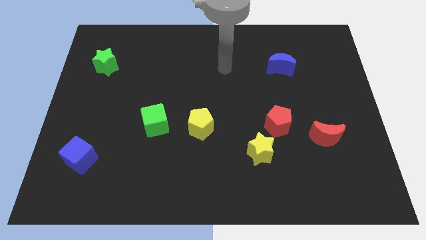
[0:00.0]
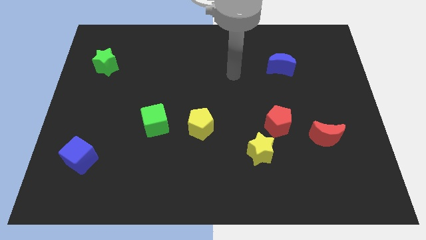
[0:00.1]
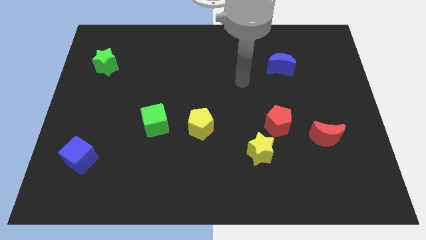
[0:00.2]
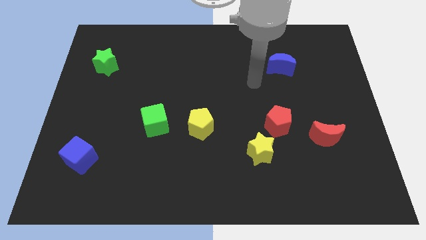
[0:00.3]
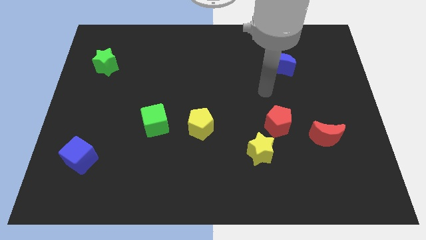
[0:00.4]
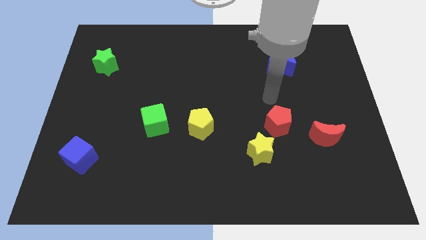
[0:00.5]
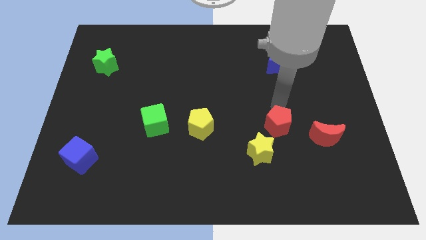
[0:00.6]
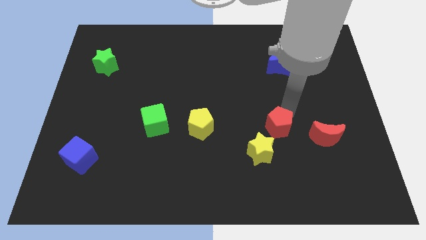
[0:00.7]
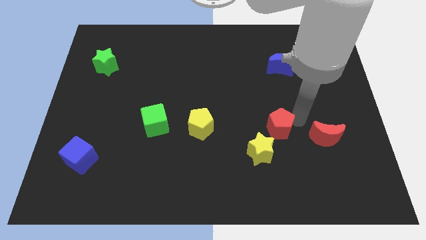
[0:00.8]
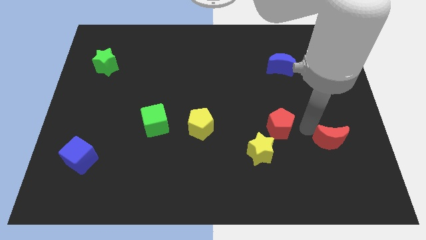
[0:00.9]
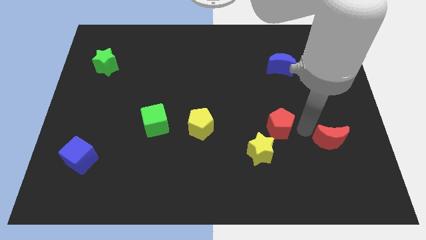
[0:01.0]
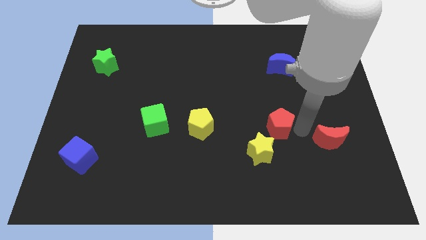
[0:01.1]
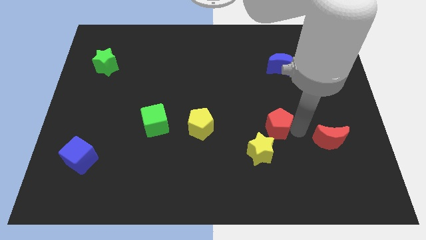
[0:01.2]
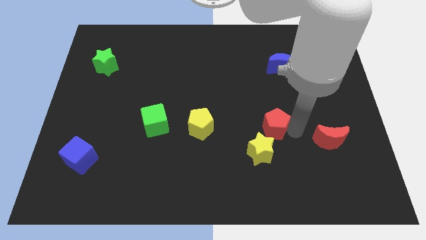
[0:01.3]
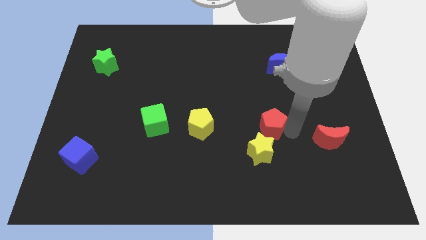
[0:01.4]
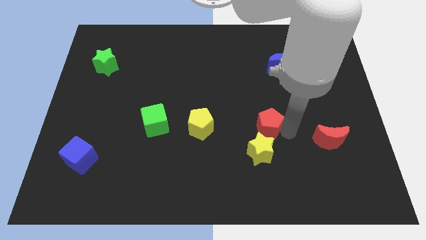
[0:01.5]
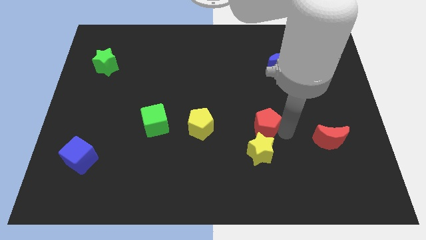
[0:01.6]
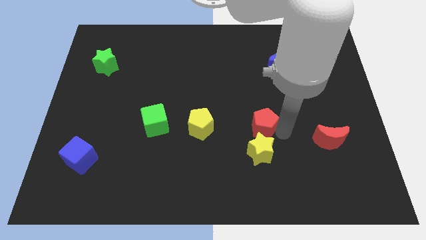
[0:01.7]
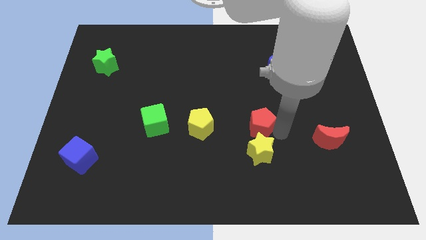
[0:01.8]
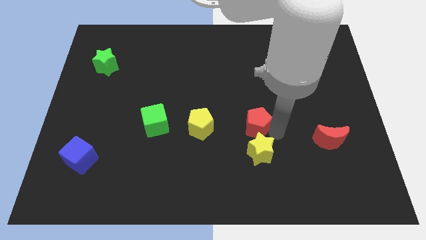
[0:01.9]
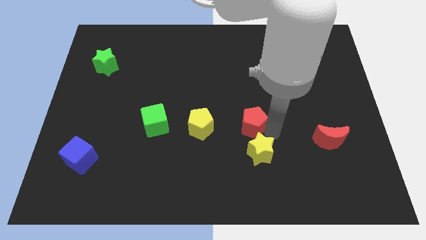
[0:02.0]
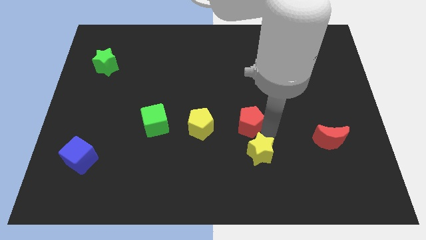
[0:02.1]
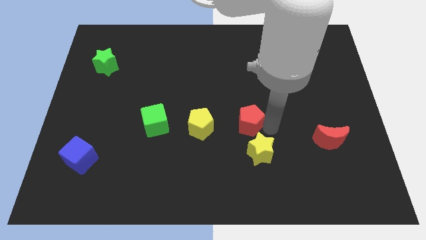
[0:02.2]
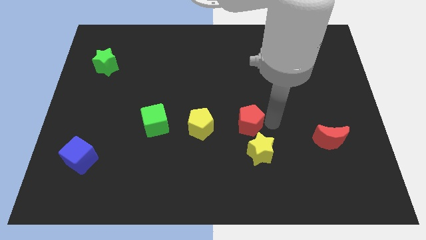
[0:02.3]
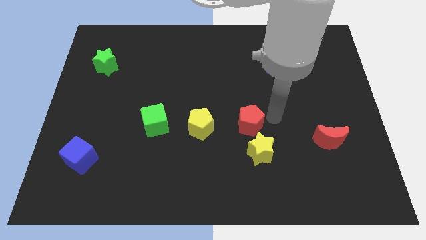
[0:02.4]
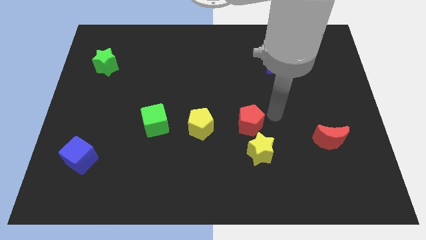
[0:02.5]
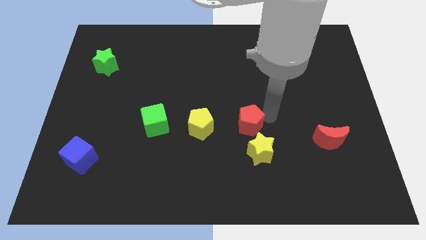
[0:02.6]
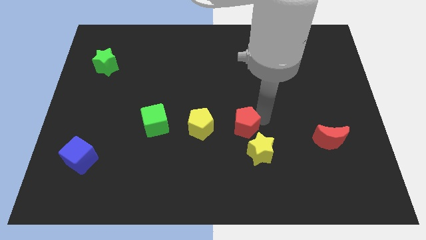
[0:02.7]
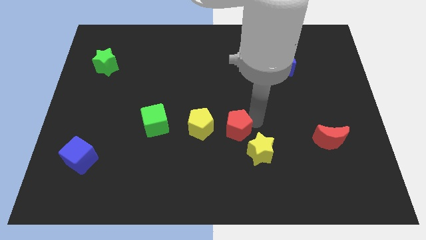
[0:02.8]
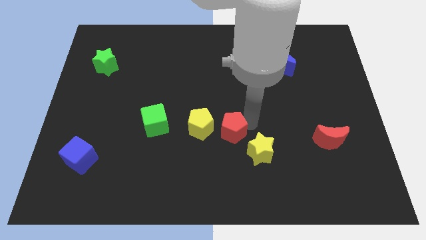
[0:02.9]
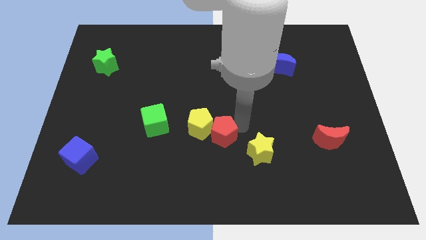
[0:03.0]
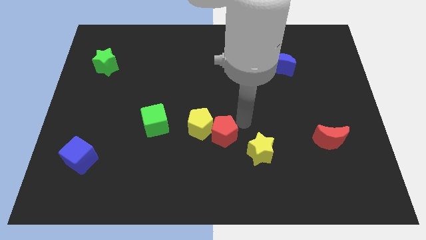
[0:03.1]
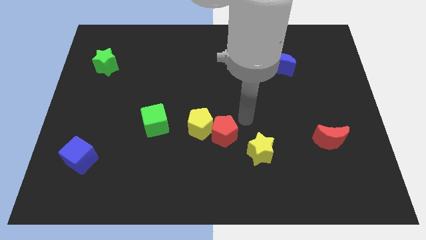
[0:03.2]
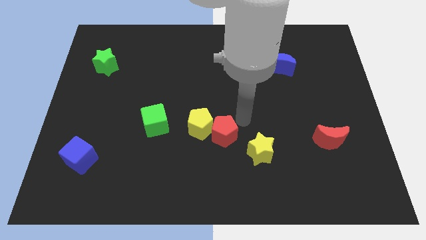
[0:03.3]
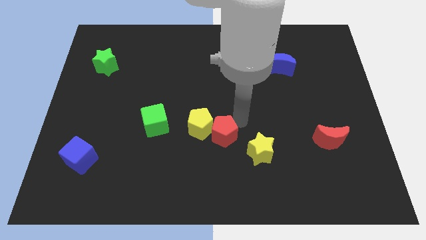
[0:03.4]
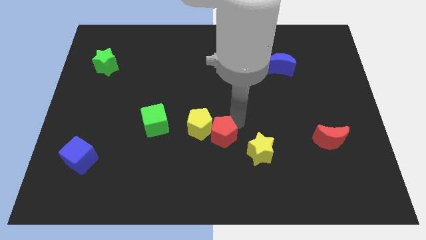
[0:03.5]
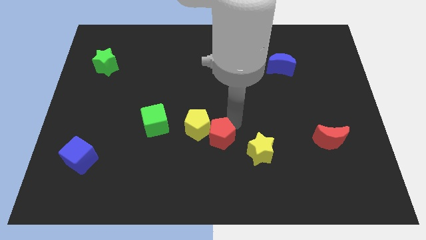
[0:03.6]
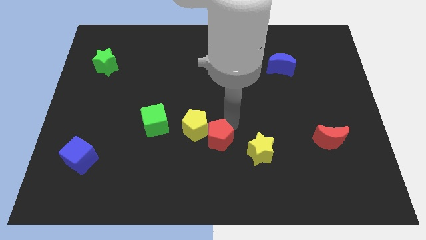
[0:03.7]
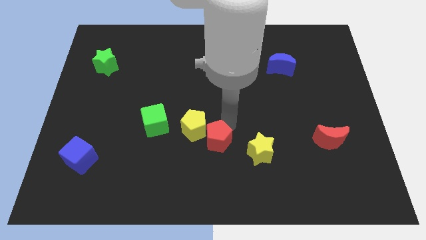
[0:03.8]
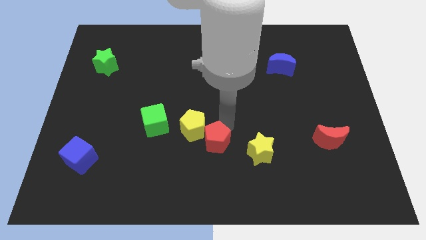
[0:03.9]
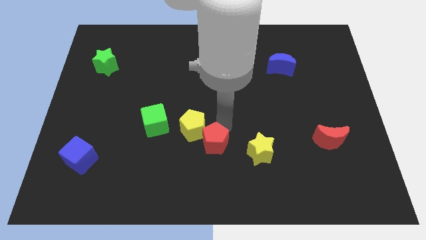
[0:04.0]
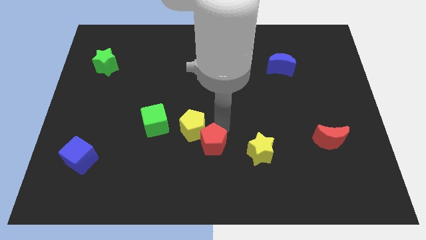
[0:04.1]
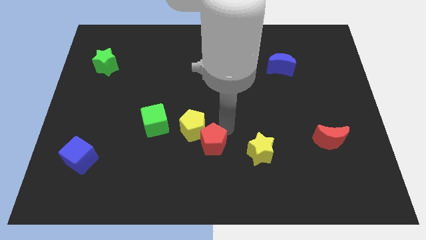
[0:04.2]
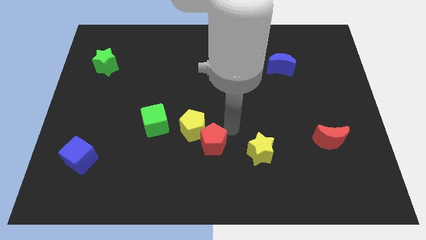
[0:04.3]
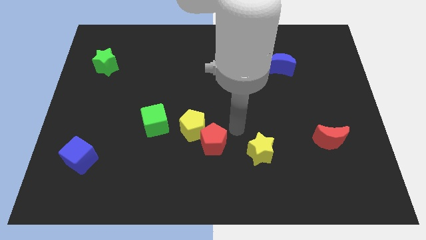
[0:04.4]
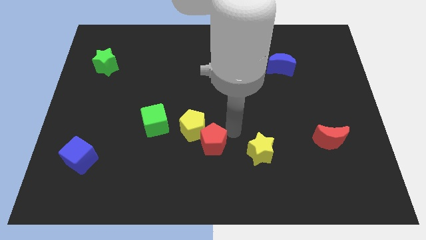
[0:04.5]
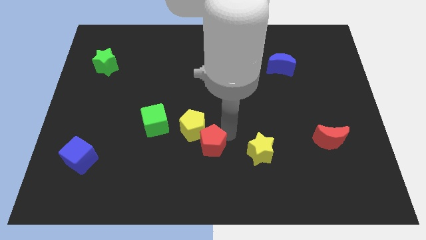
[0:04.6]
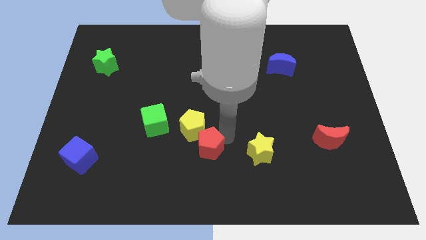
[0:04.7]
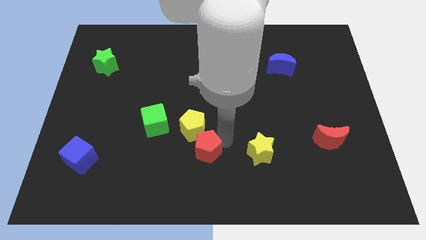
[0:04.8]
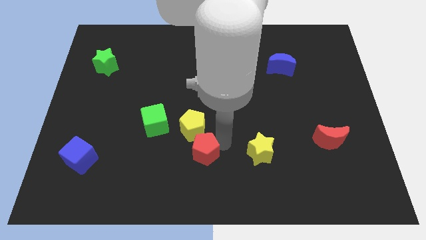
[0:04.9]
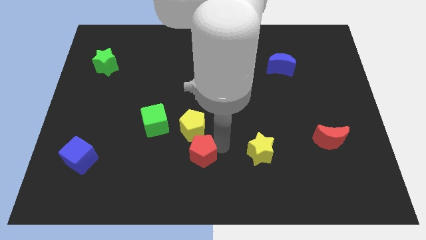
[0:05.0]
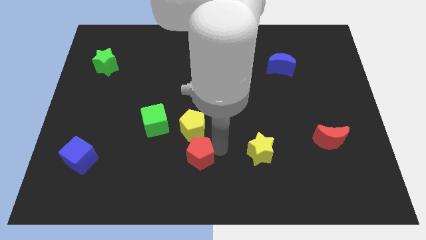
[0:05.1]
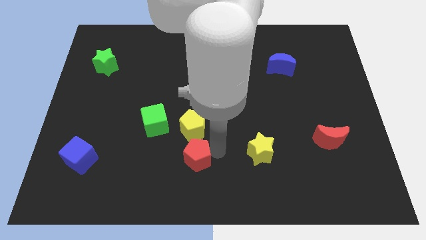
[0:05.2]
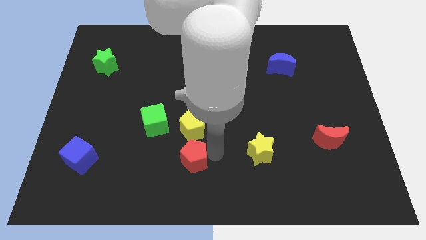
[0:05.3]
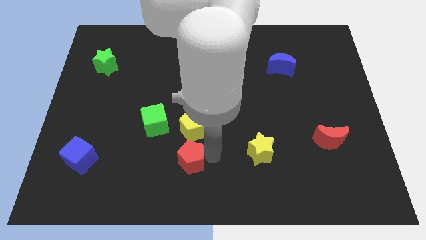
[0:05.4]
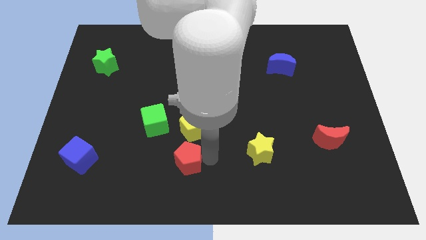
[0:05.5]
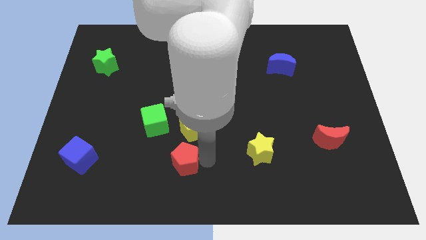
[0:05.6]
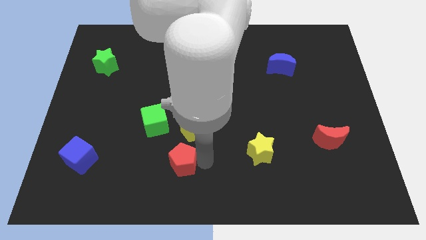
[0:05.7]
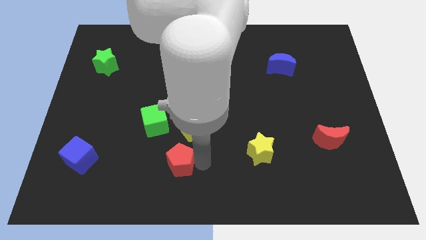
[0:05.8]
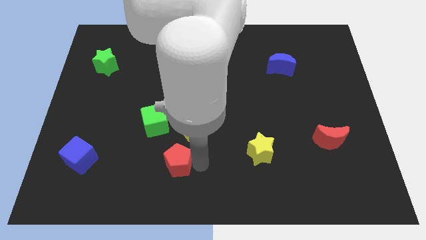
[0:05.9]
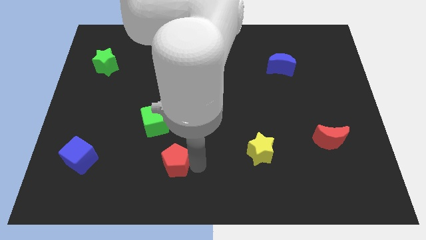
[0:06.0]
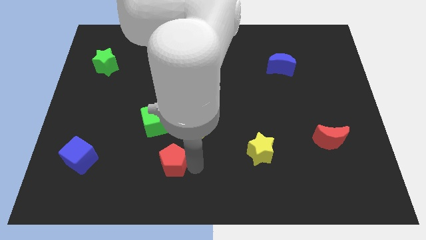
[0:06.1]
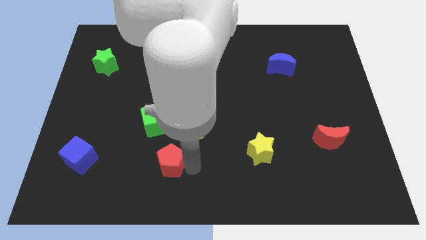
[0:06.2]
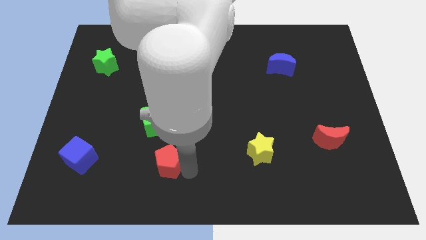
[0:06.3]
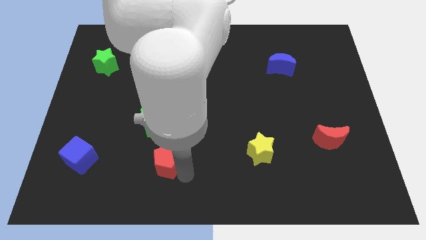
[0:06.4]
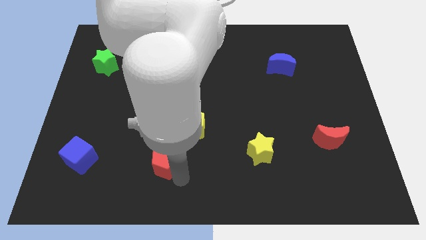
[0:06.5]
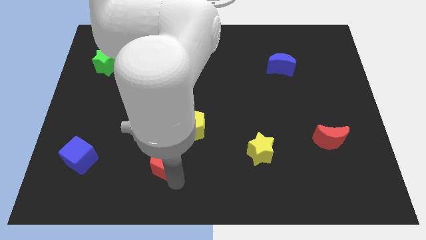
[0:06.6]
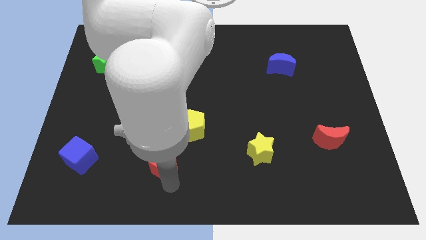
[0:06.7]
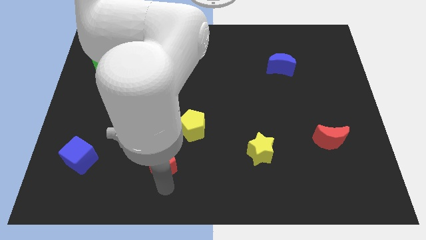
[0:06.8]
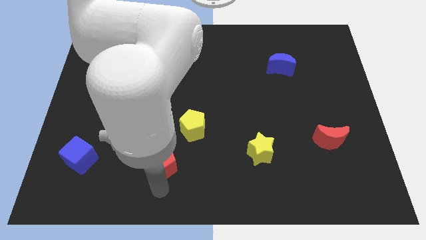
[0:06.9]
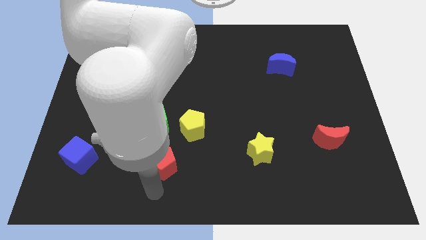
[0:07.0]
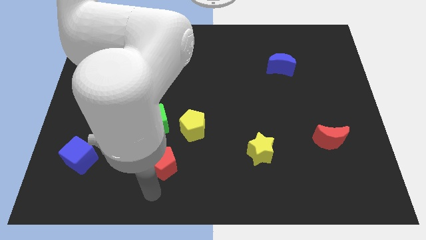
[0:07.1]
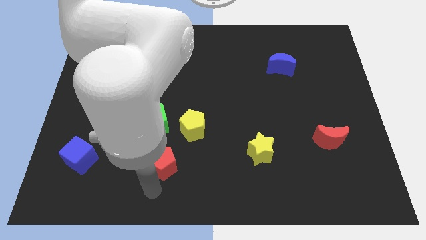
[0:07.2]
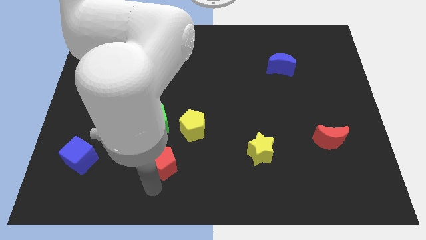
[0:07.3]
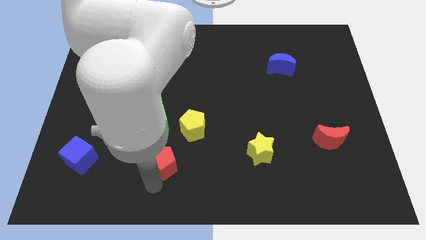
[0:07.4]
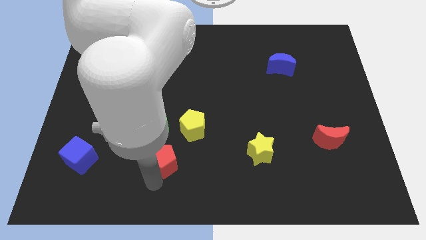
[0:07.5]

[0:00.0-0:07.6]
move the red pentagon left

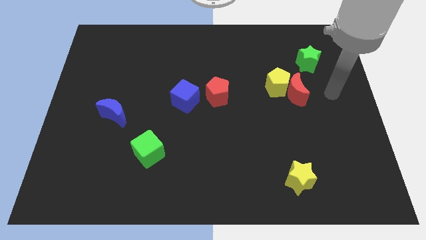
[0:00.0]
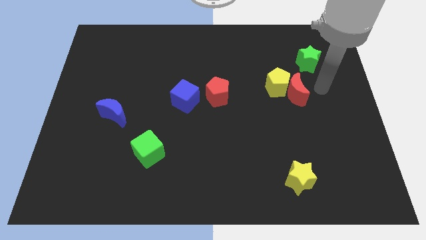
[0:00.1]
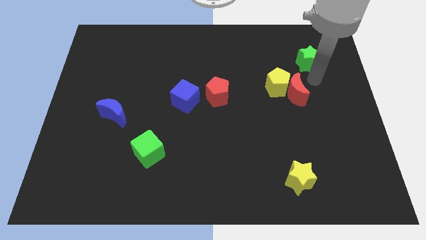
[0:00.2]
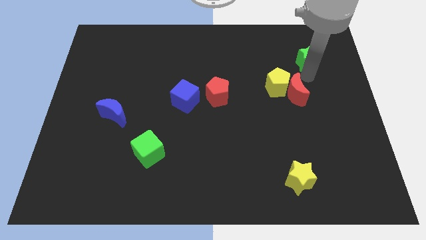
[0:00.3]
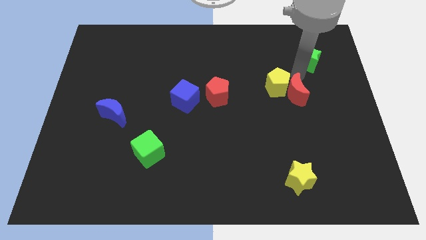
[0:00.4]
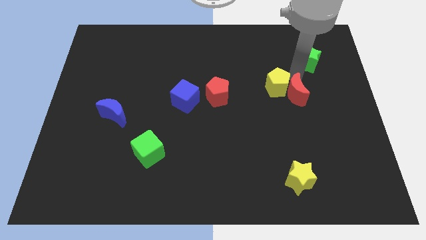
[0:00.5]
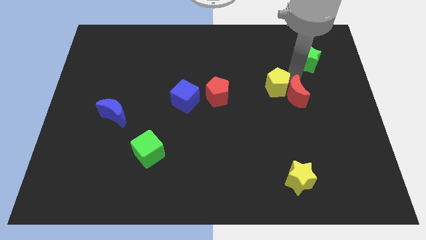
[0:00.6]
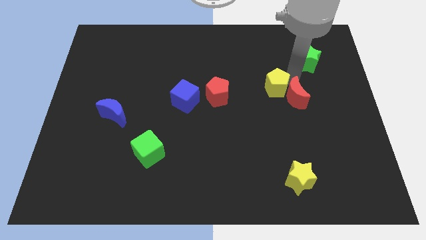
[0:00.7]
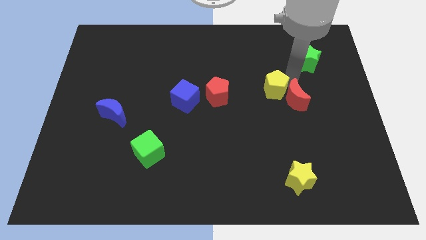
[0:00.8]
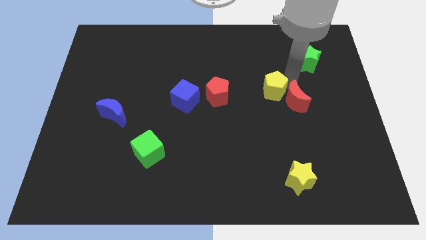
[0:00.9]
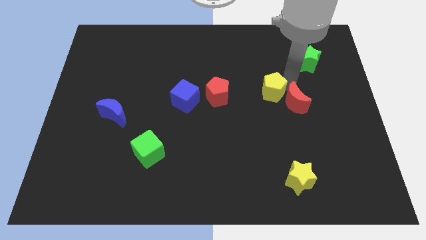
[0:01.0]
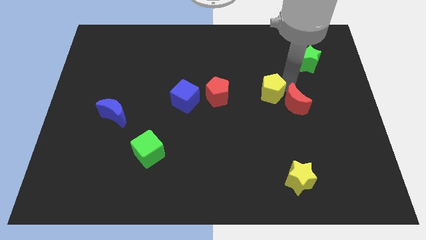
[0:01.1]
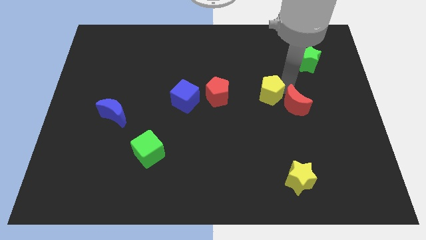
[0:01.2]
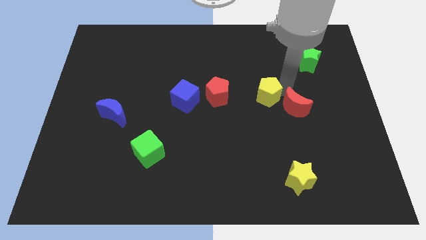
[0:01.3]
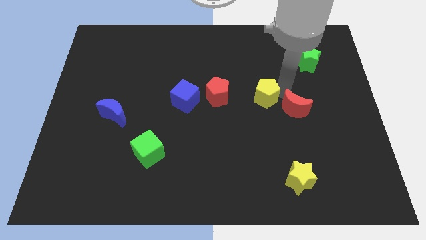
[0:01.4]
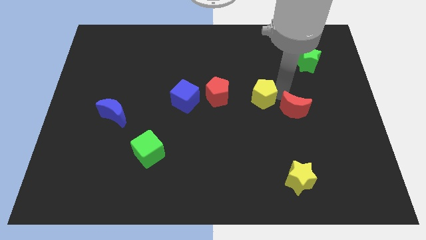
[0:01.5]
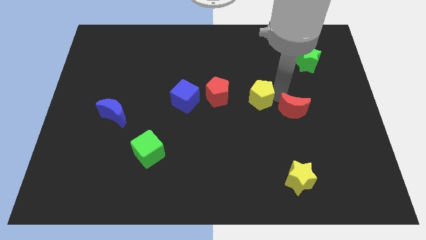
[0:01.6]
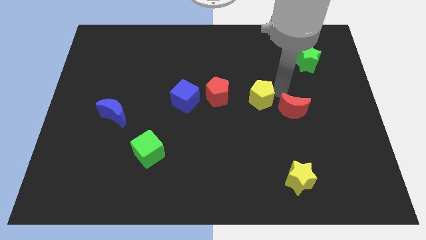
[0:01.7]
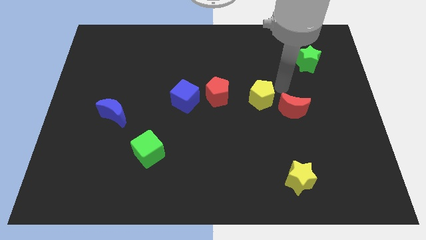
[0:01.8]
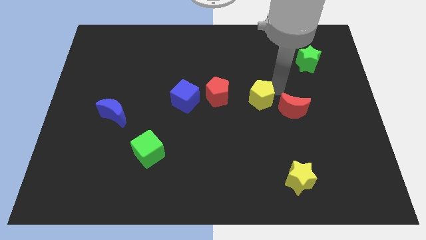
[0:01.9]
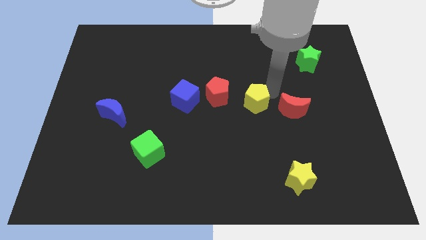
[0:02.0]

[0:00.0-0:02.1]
slightly move the yellow pentagon down and to the left diagonally
